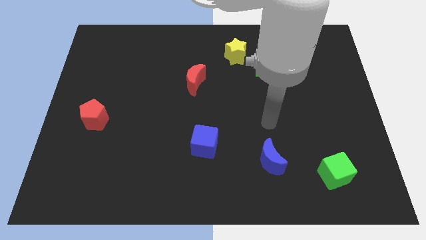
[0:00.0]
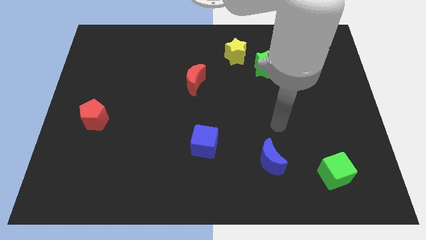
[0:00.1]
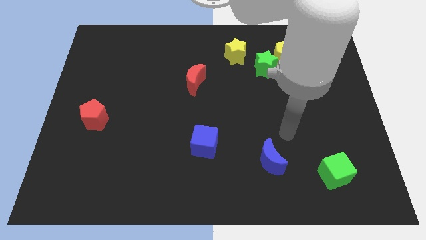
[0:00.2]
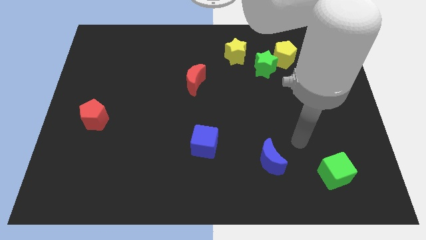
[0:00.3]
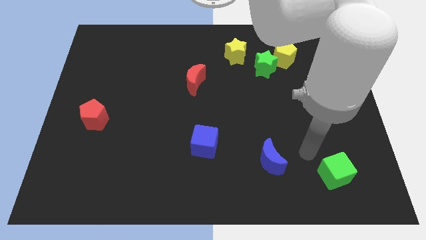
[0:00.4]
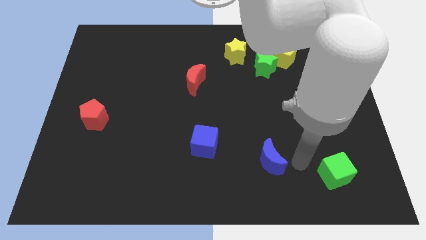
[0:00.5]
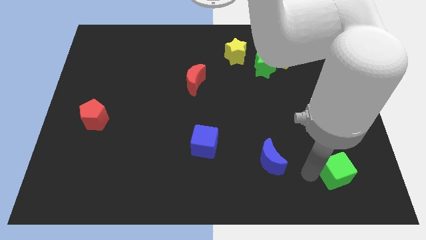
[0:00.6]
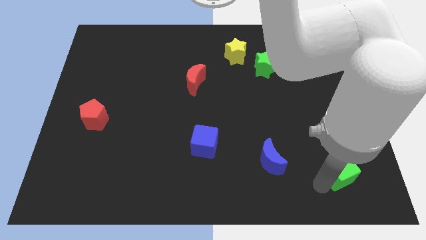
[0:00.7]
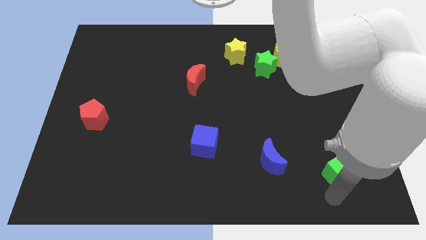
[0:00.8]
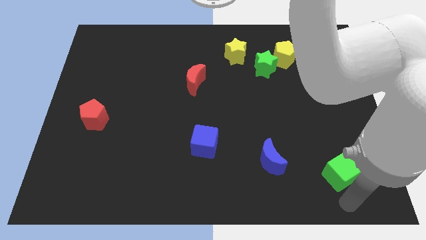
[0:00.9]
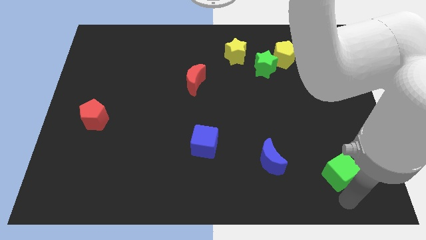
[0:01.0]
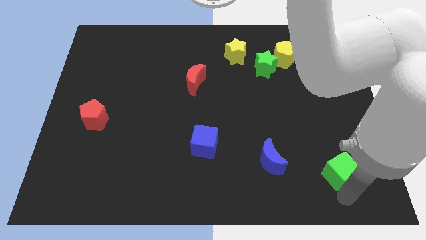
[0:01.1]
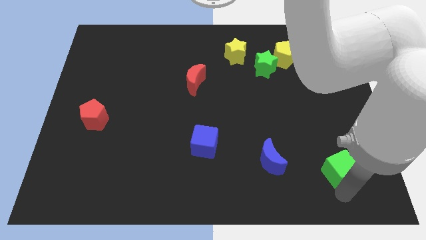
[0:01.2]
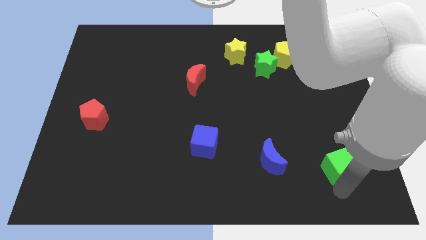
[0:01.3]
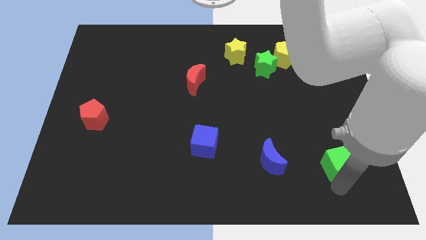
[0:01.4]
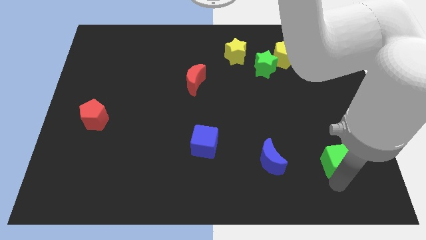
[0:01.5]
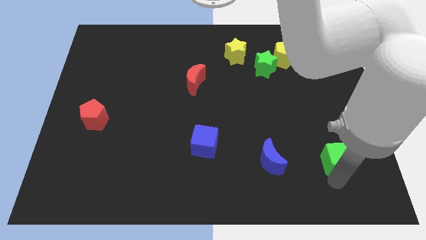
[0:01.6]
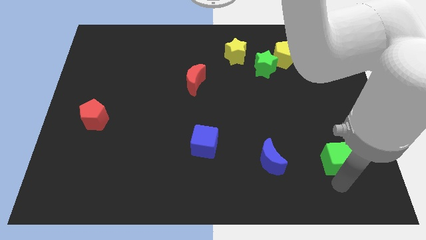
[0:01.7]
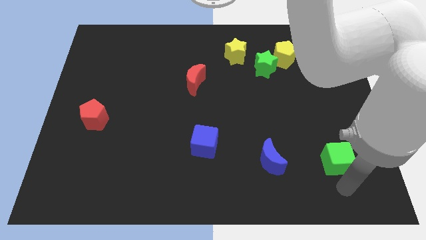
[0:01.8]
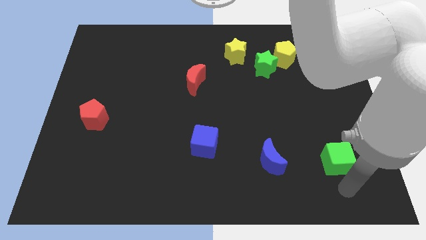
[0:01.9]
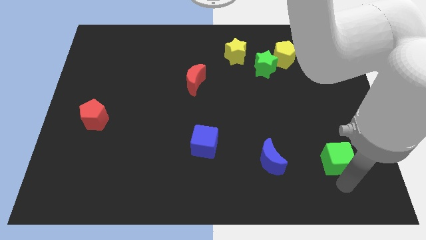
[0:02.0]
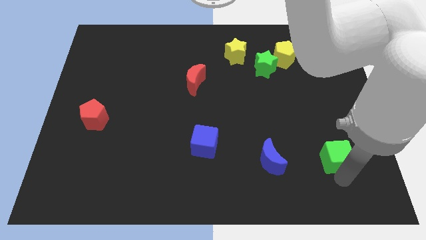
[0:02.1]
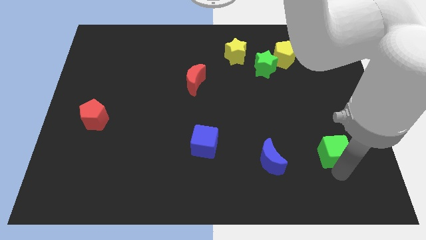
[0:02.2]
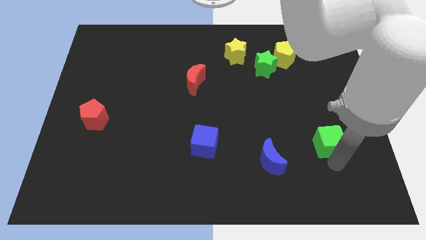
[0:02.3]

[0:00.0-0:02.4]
slightly move the green cube upwards

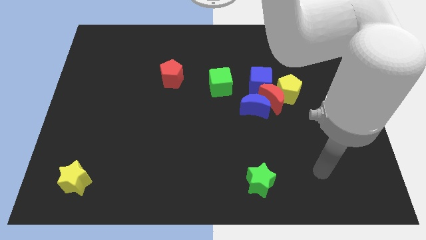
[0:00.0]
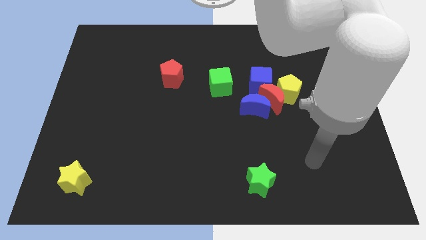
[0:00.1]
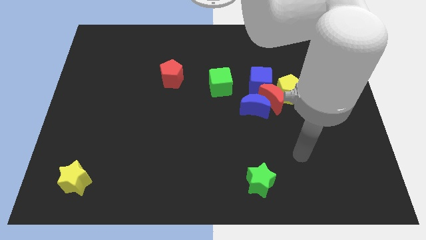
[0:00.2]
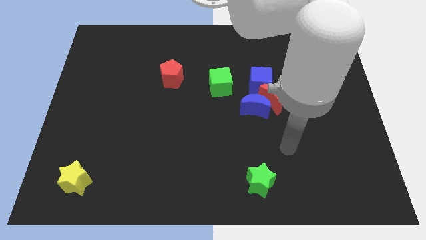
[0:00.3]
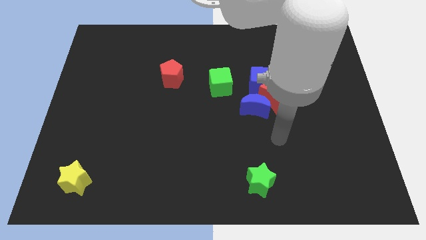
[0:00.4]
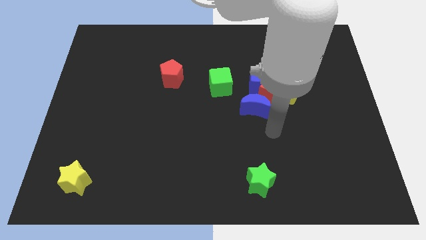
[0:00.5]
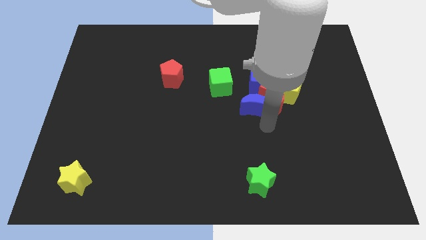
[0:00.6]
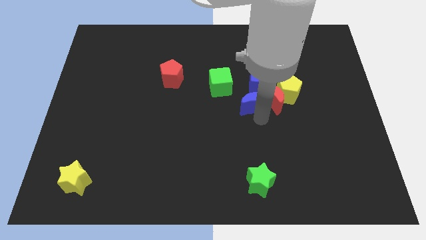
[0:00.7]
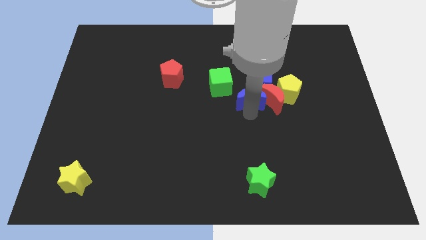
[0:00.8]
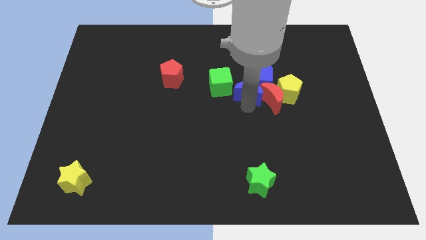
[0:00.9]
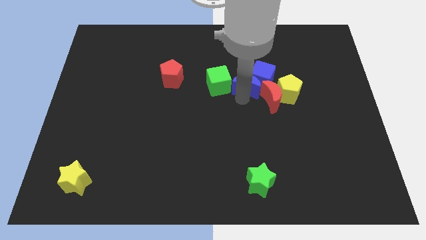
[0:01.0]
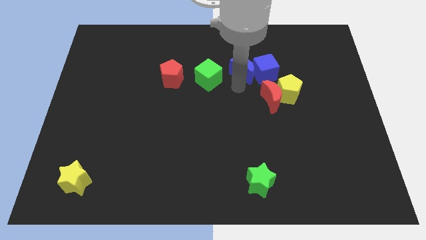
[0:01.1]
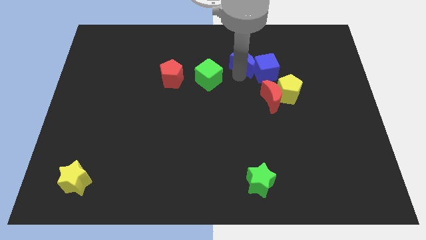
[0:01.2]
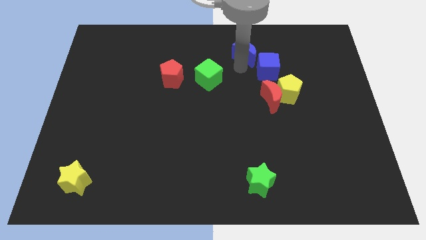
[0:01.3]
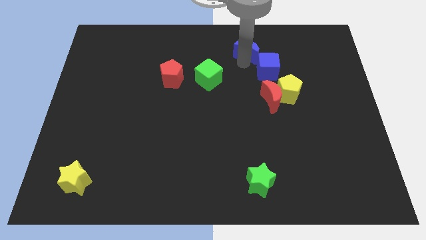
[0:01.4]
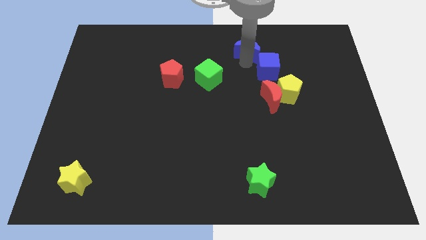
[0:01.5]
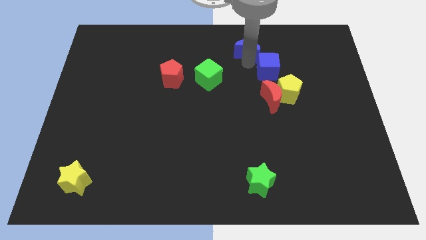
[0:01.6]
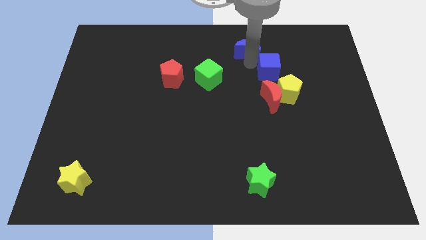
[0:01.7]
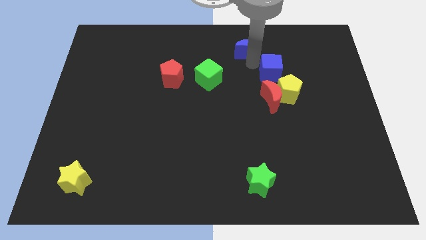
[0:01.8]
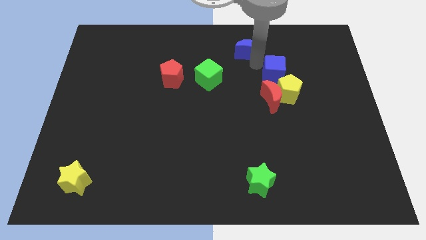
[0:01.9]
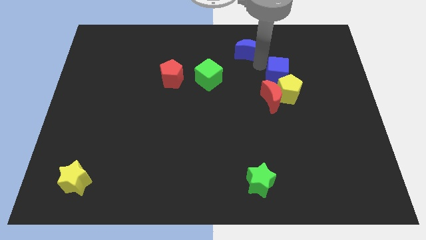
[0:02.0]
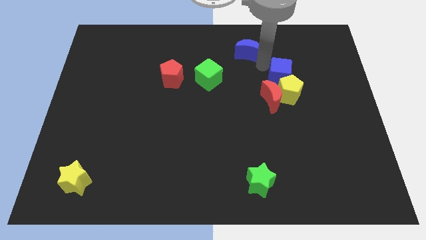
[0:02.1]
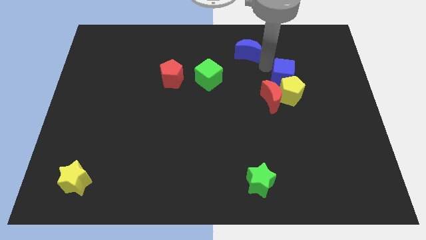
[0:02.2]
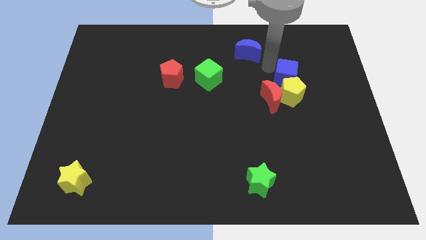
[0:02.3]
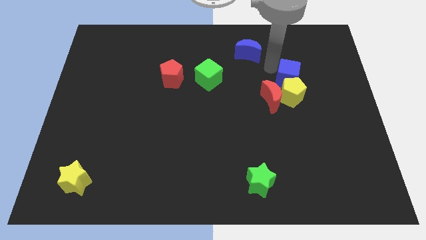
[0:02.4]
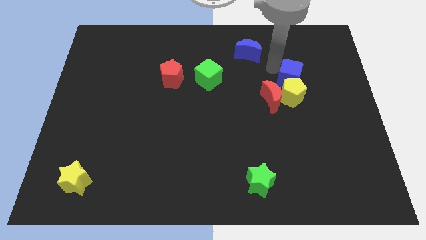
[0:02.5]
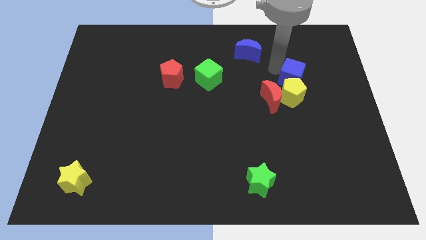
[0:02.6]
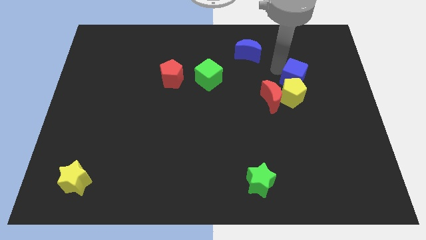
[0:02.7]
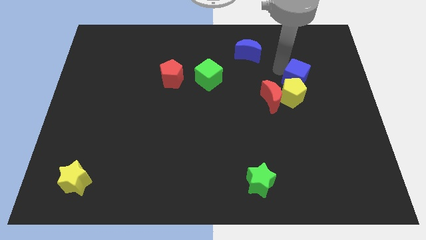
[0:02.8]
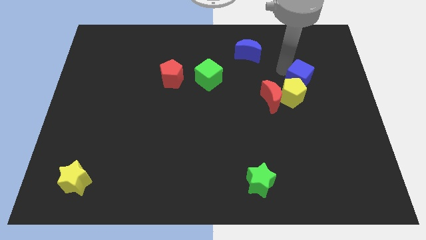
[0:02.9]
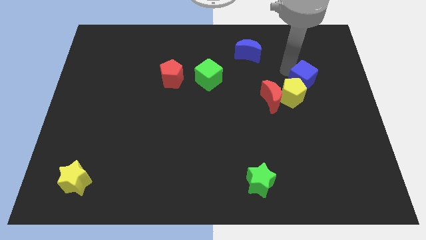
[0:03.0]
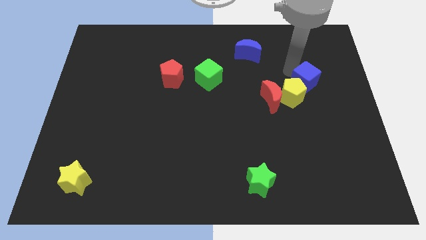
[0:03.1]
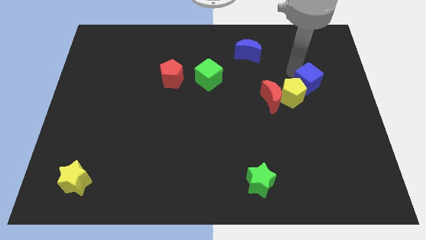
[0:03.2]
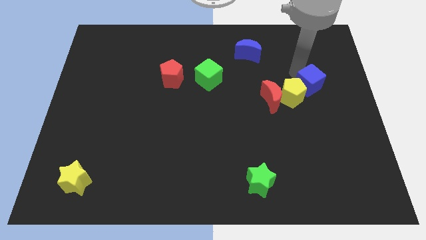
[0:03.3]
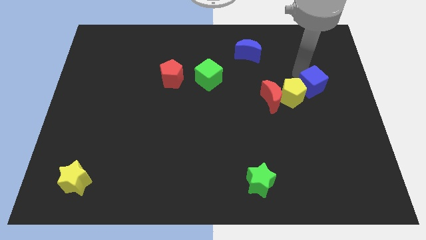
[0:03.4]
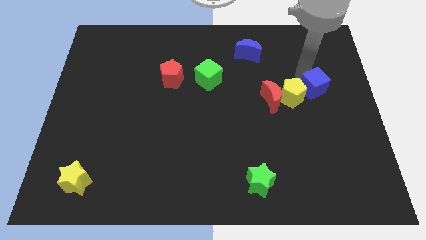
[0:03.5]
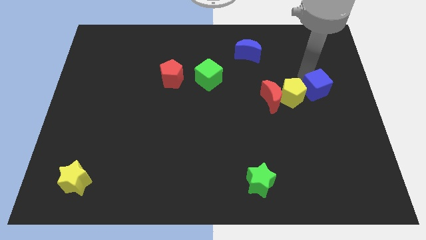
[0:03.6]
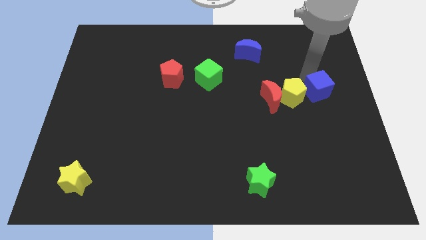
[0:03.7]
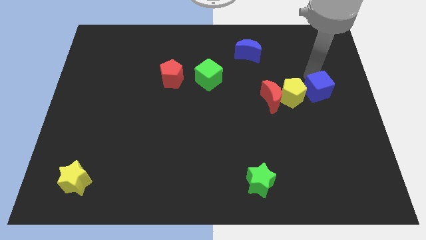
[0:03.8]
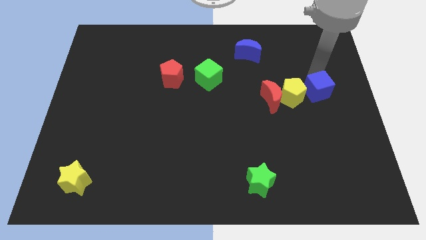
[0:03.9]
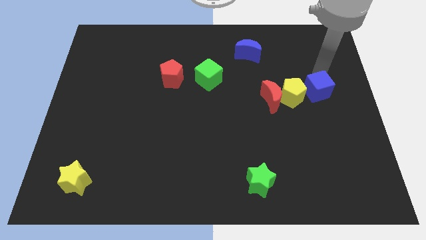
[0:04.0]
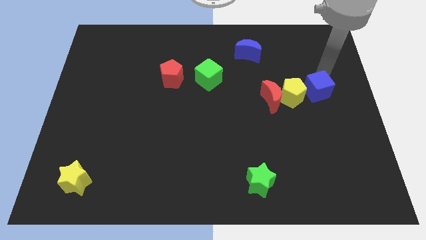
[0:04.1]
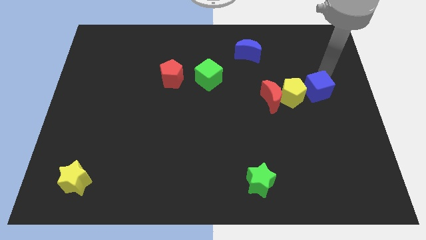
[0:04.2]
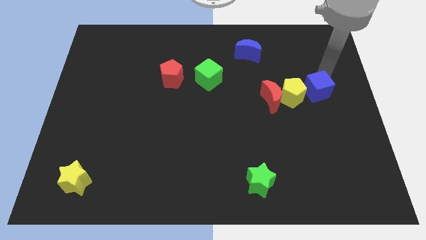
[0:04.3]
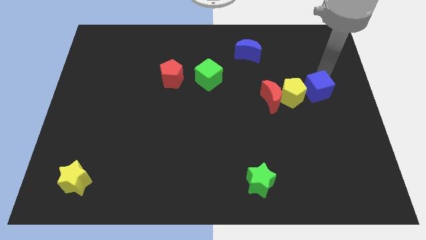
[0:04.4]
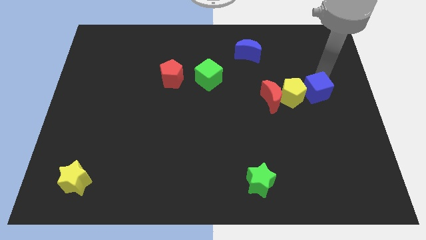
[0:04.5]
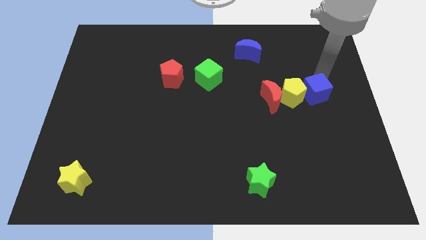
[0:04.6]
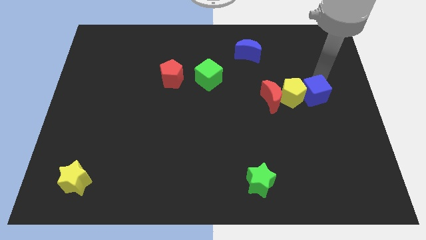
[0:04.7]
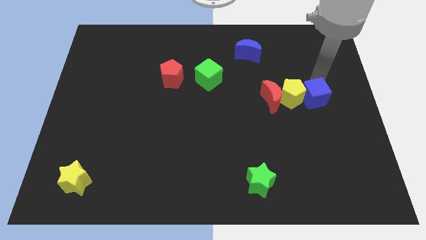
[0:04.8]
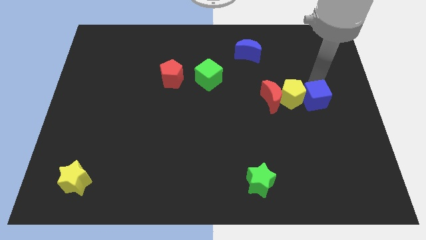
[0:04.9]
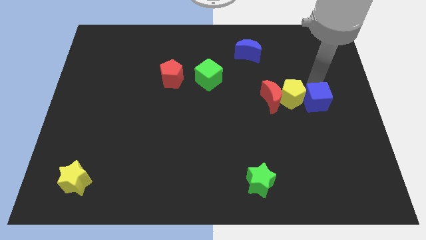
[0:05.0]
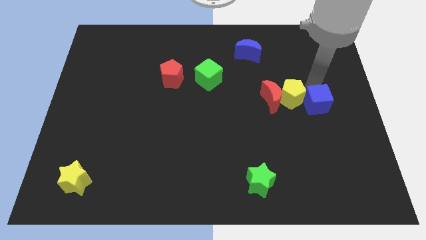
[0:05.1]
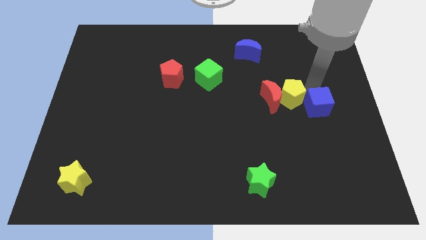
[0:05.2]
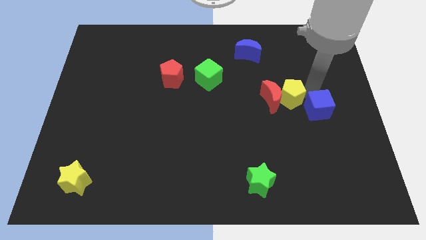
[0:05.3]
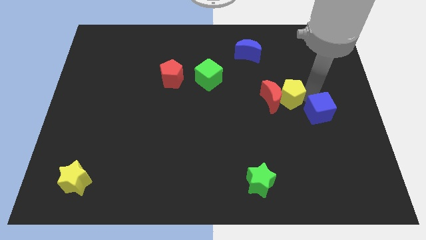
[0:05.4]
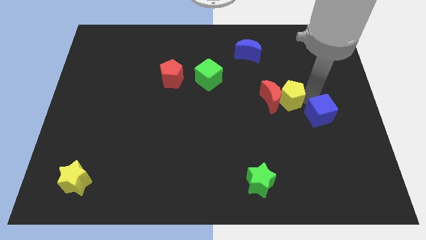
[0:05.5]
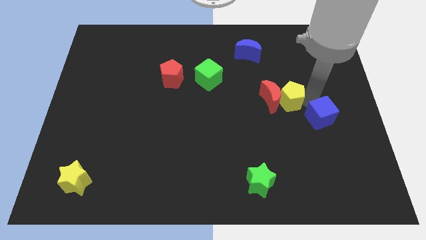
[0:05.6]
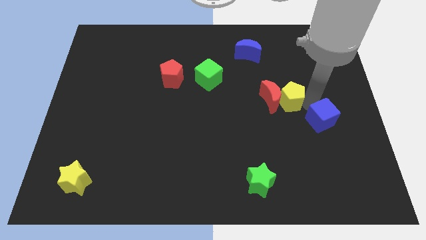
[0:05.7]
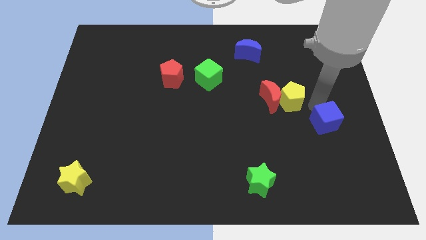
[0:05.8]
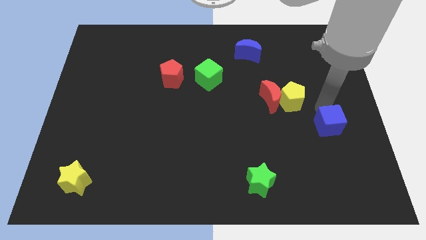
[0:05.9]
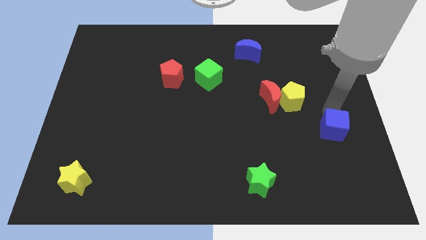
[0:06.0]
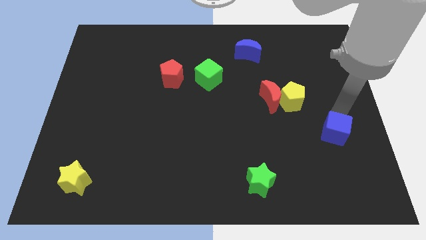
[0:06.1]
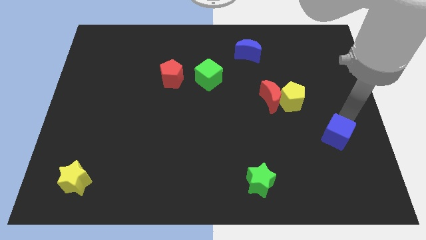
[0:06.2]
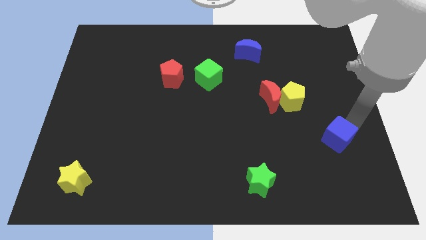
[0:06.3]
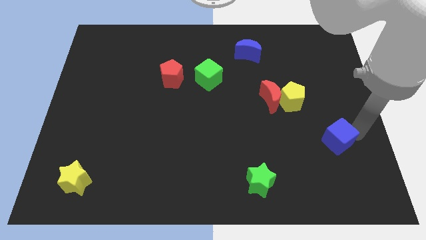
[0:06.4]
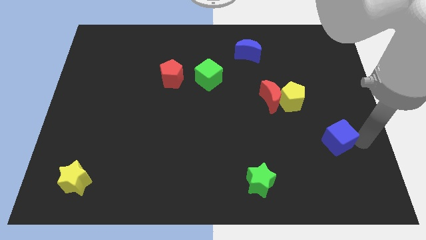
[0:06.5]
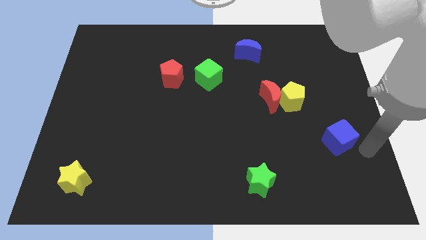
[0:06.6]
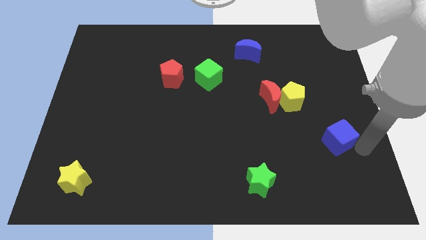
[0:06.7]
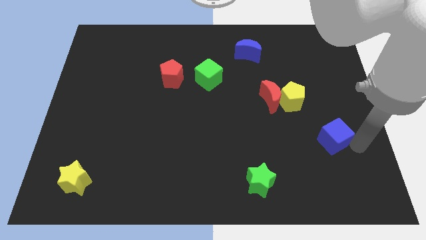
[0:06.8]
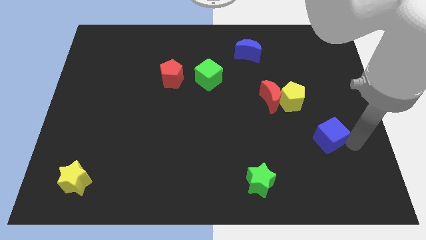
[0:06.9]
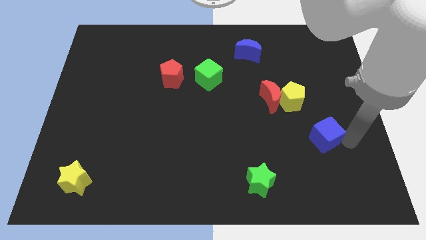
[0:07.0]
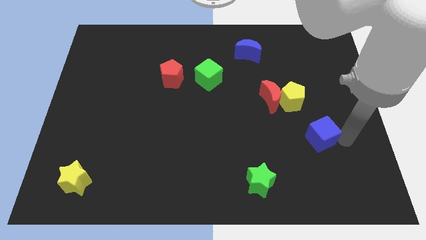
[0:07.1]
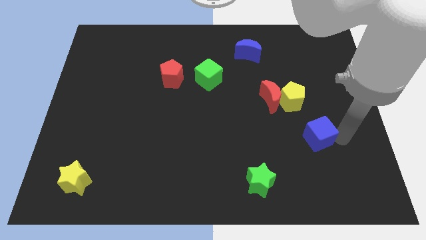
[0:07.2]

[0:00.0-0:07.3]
slightly slide the blue cube downwards
